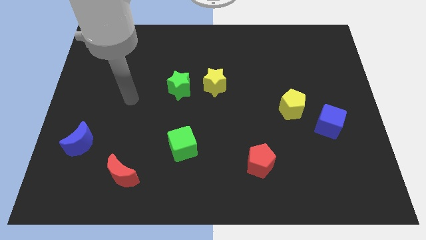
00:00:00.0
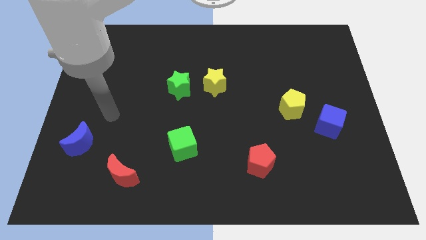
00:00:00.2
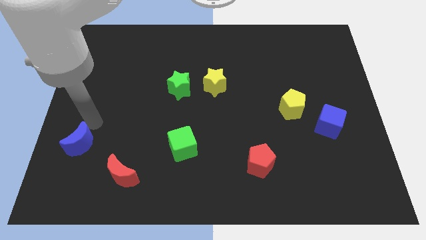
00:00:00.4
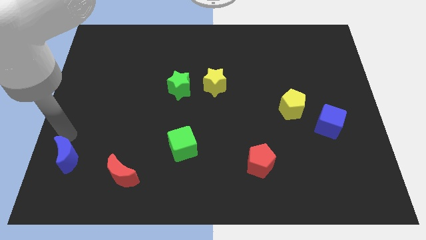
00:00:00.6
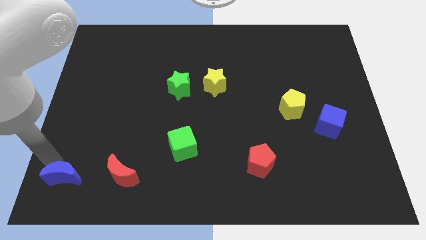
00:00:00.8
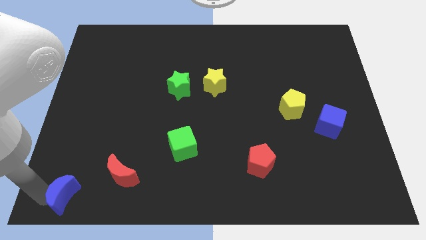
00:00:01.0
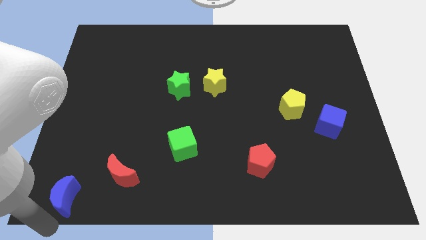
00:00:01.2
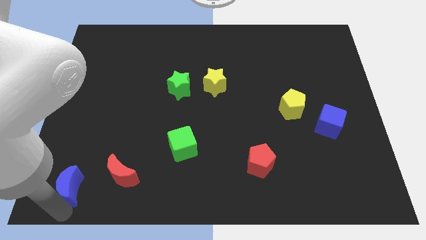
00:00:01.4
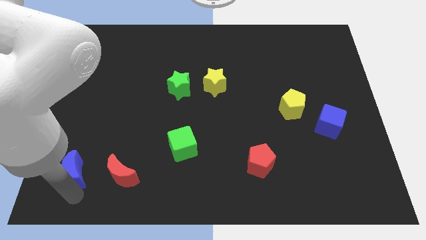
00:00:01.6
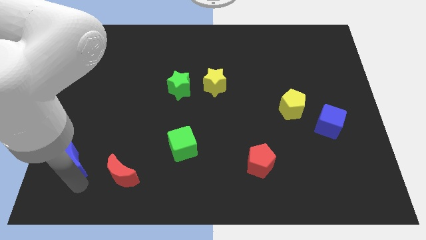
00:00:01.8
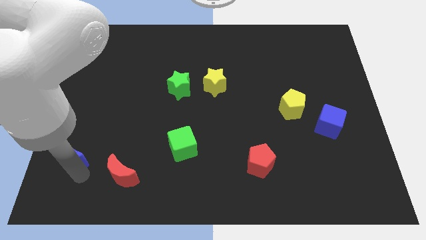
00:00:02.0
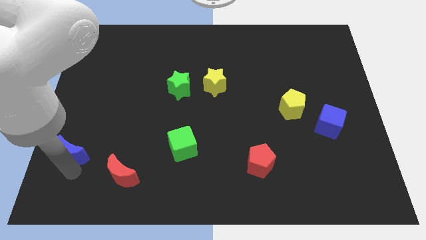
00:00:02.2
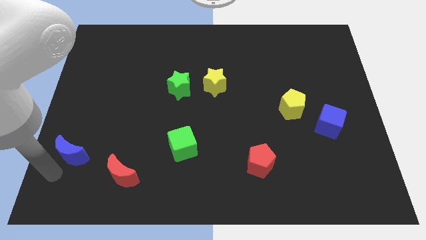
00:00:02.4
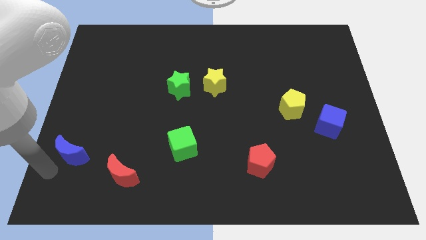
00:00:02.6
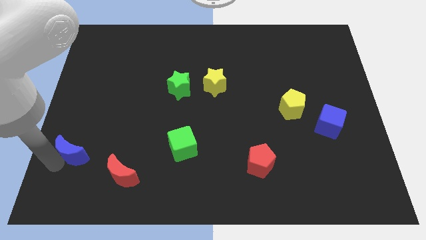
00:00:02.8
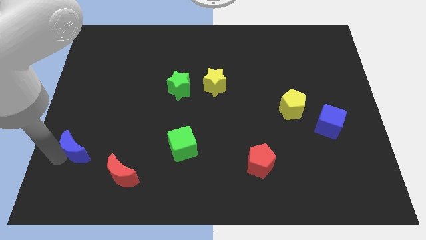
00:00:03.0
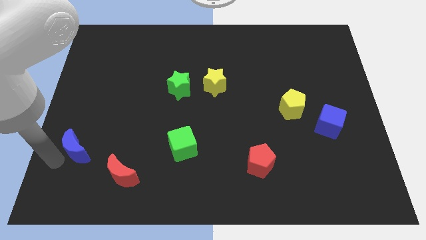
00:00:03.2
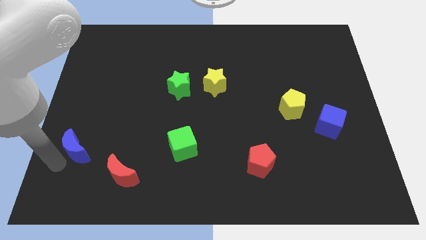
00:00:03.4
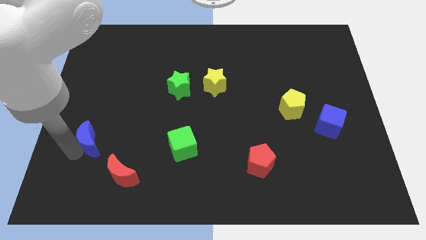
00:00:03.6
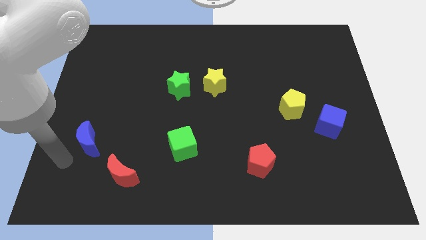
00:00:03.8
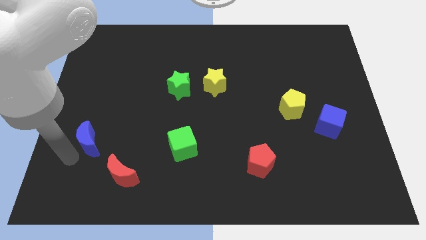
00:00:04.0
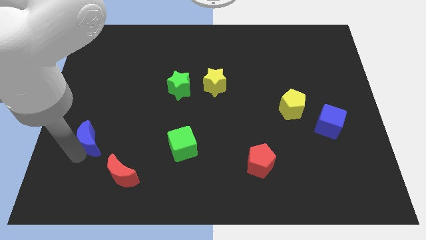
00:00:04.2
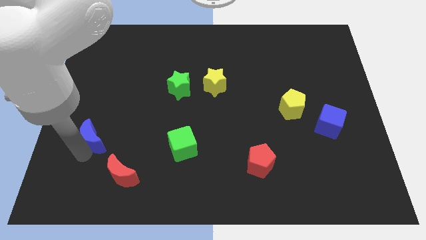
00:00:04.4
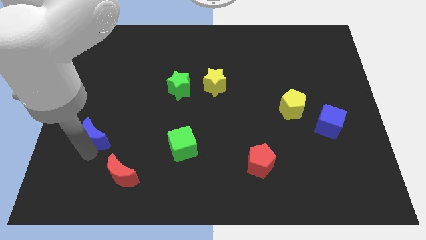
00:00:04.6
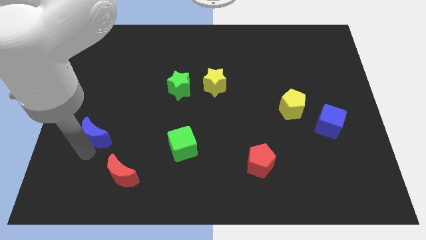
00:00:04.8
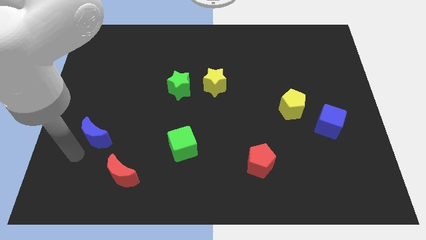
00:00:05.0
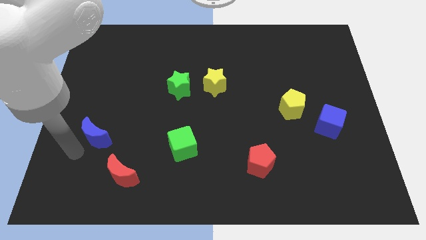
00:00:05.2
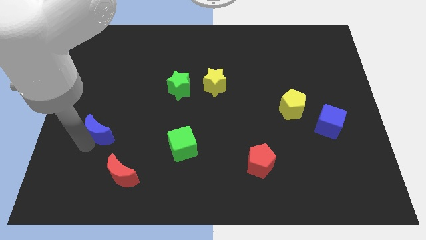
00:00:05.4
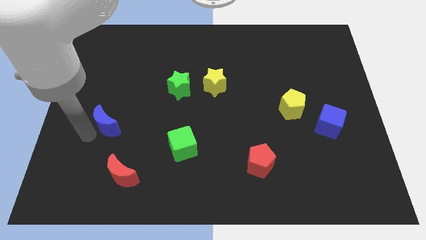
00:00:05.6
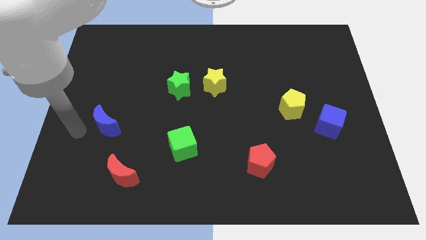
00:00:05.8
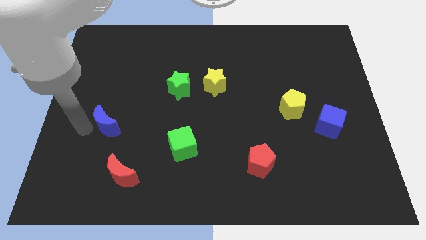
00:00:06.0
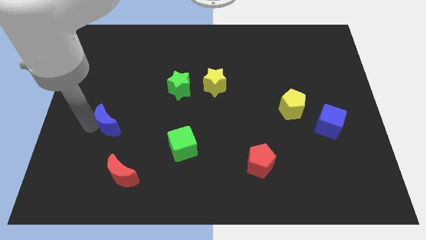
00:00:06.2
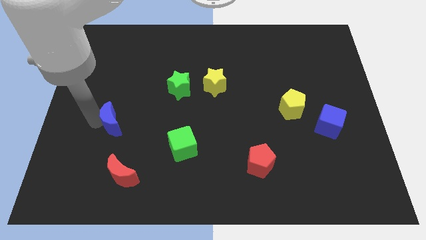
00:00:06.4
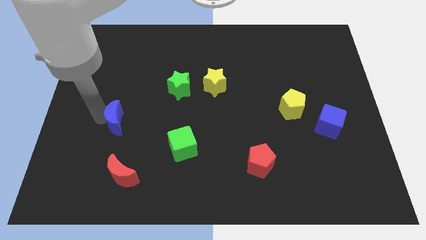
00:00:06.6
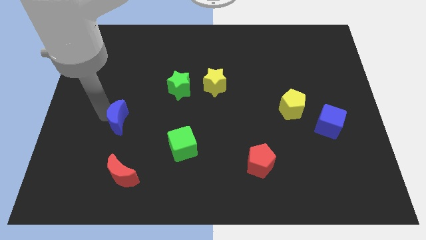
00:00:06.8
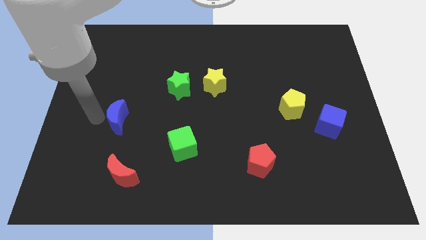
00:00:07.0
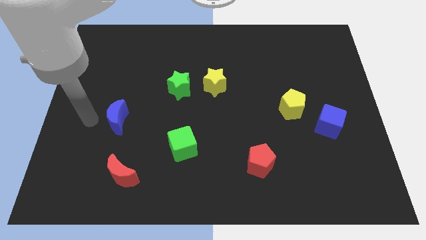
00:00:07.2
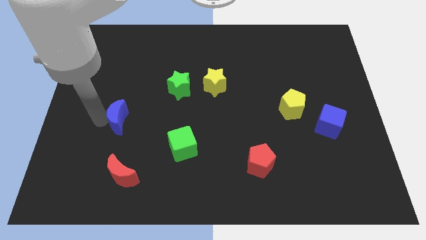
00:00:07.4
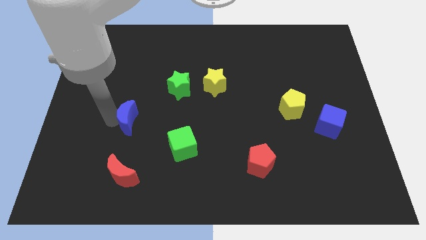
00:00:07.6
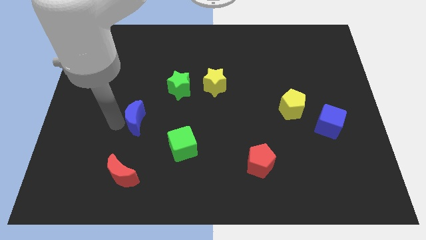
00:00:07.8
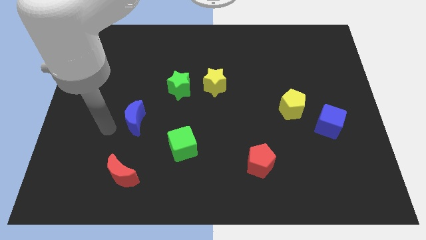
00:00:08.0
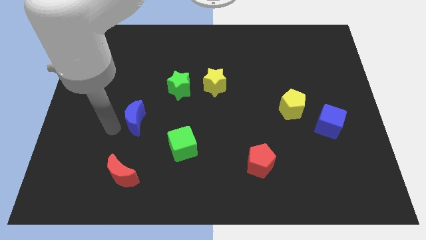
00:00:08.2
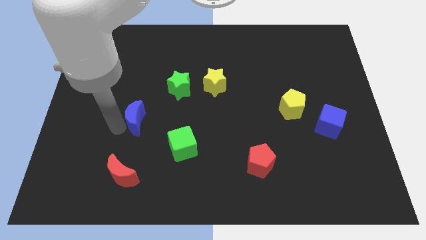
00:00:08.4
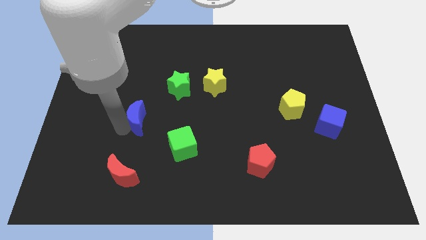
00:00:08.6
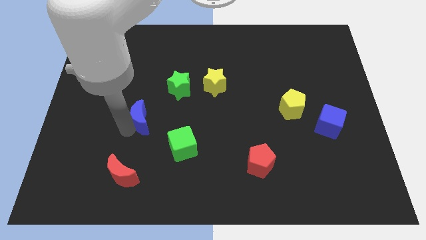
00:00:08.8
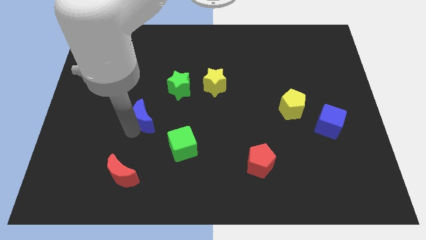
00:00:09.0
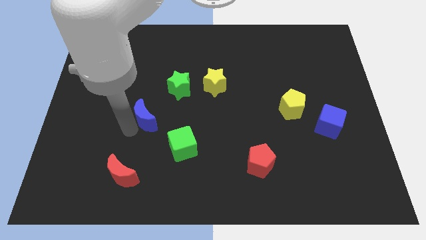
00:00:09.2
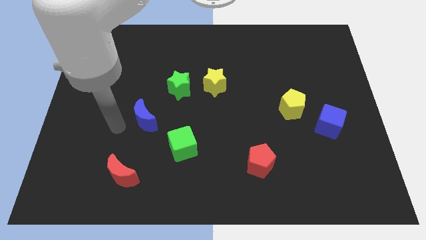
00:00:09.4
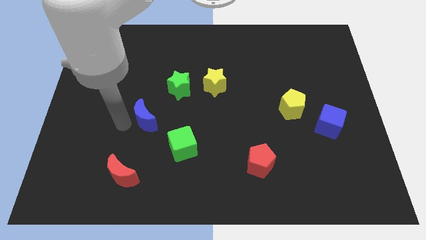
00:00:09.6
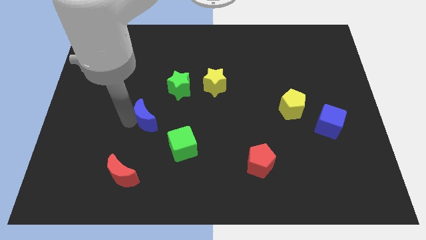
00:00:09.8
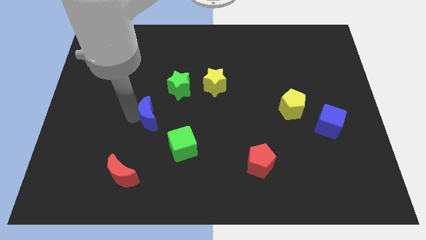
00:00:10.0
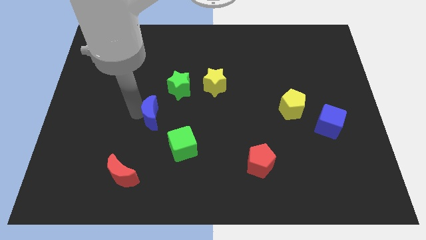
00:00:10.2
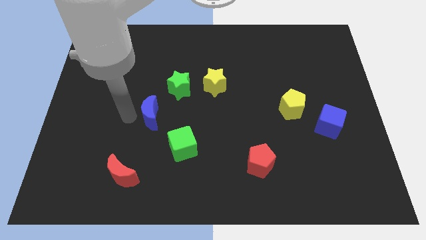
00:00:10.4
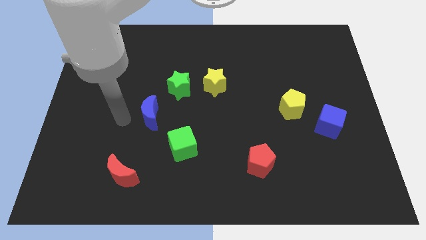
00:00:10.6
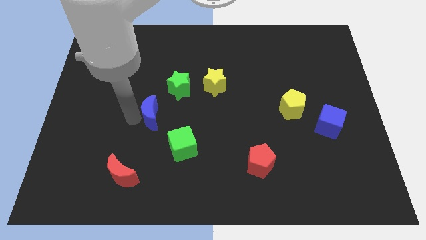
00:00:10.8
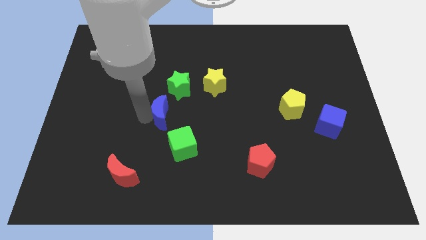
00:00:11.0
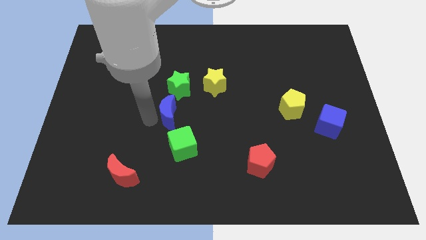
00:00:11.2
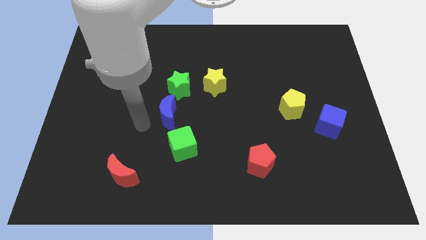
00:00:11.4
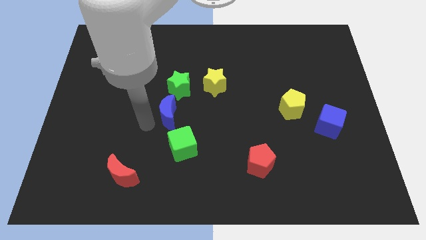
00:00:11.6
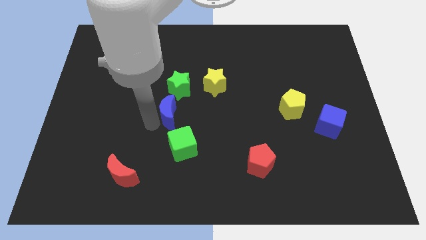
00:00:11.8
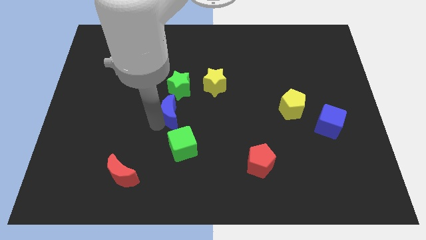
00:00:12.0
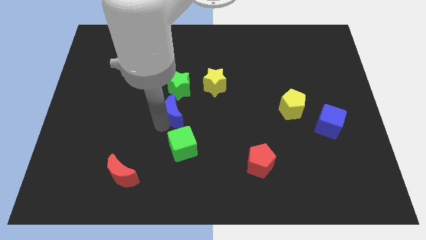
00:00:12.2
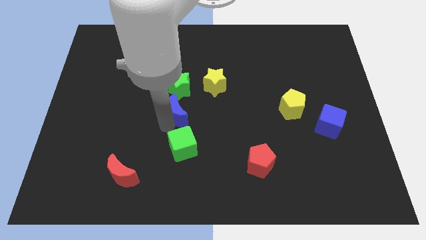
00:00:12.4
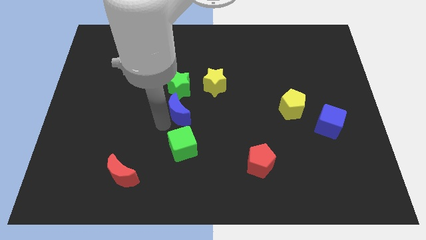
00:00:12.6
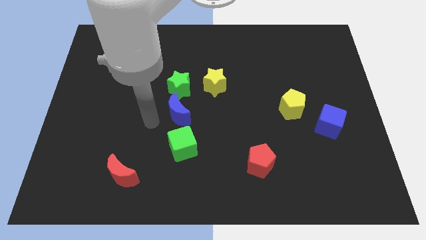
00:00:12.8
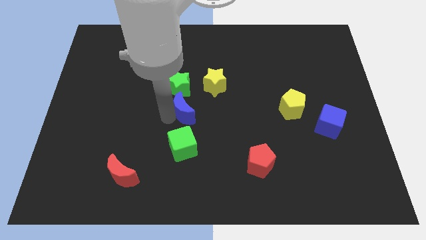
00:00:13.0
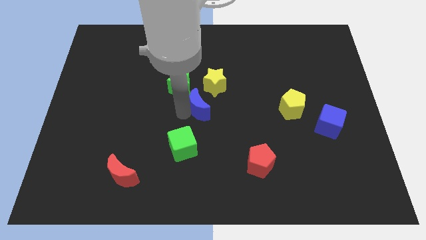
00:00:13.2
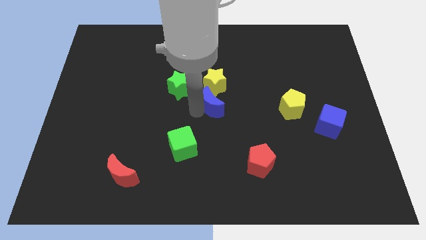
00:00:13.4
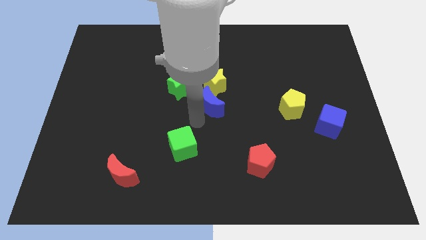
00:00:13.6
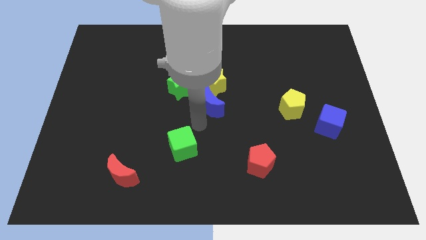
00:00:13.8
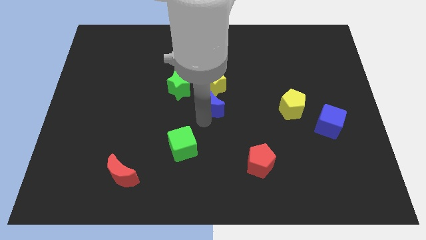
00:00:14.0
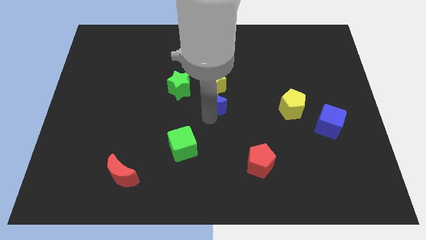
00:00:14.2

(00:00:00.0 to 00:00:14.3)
move the blue moon just right of the green star

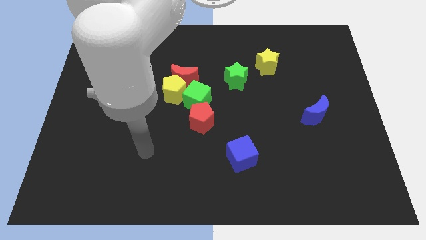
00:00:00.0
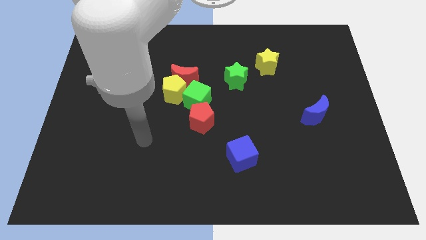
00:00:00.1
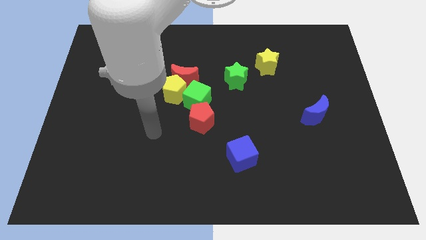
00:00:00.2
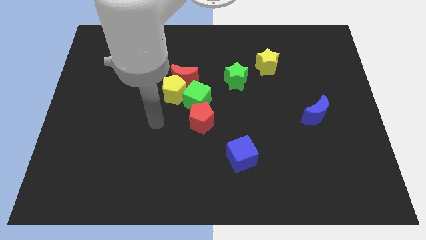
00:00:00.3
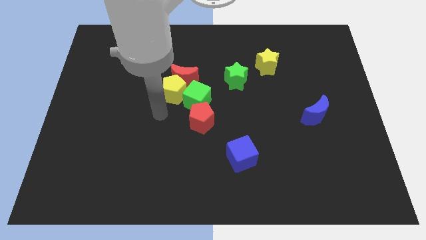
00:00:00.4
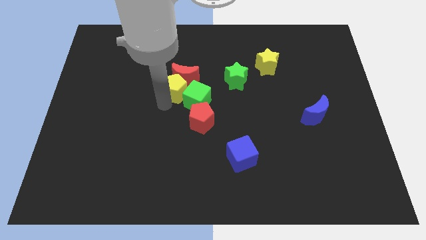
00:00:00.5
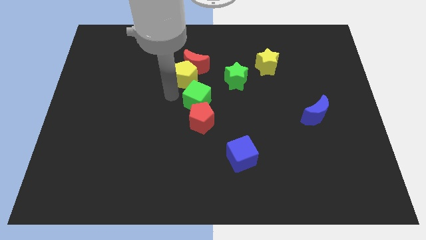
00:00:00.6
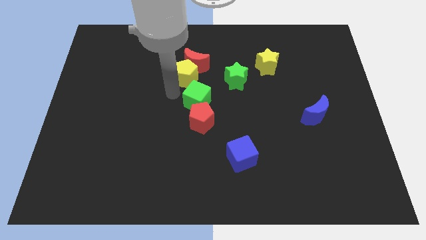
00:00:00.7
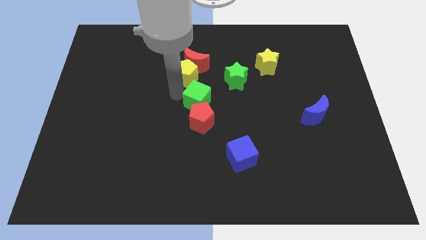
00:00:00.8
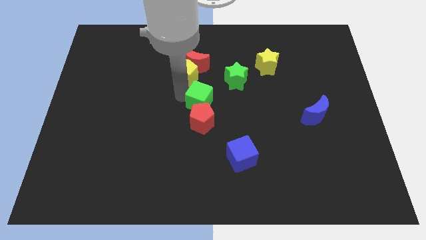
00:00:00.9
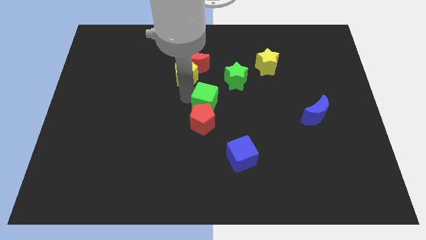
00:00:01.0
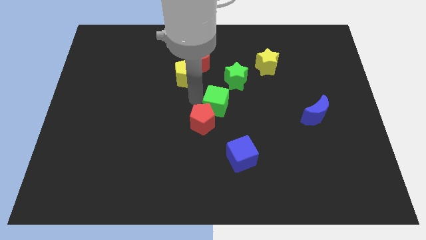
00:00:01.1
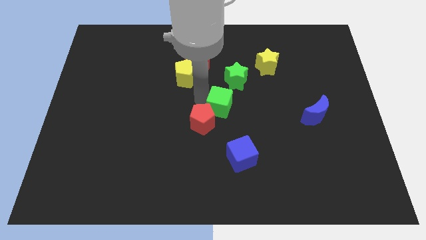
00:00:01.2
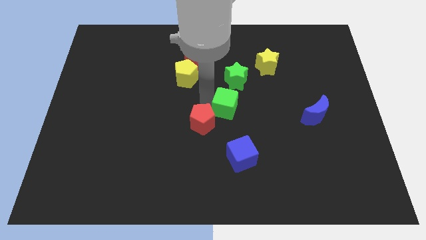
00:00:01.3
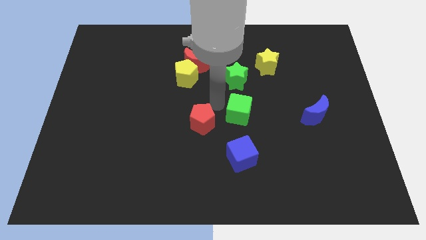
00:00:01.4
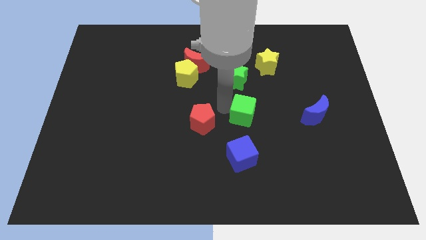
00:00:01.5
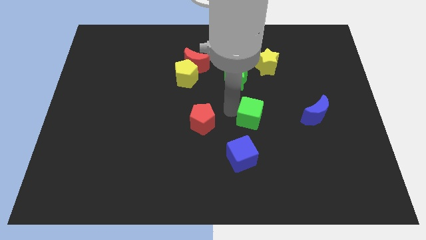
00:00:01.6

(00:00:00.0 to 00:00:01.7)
slide the green cube left of the blue moon
